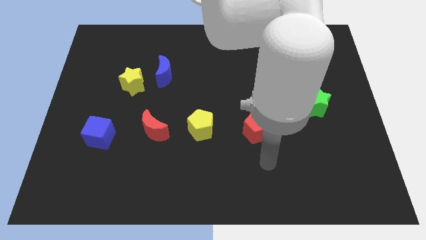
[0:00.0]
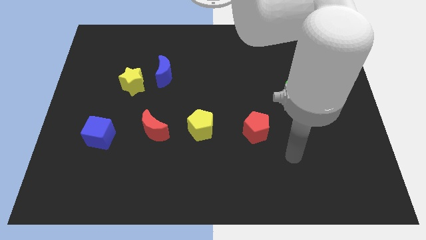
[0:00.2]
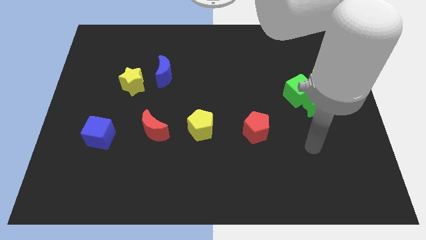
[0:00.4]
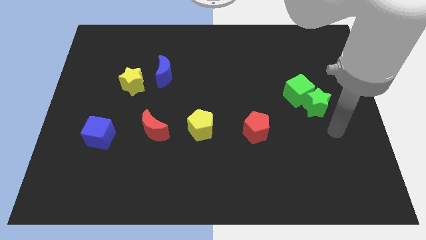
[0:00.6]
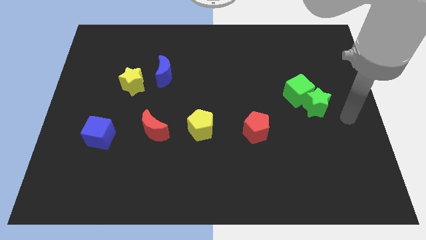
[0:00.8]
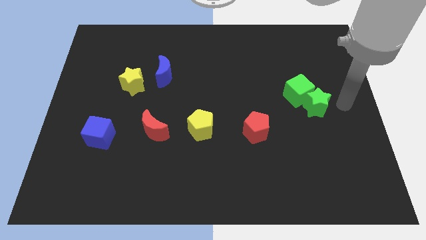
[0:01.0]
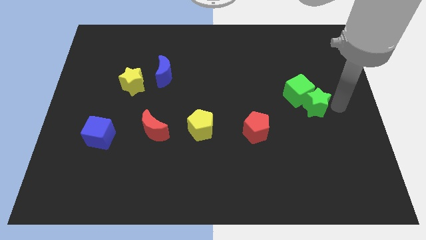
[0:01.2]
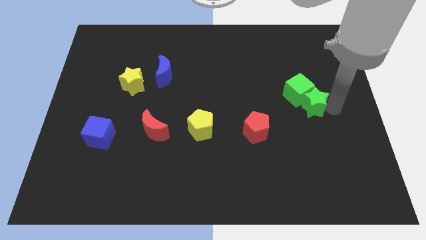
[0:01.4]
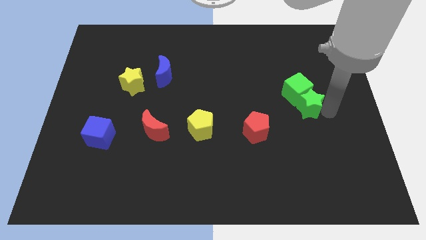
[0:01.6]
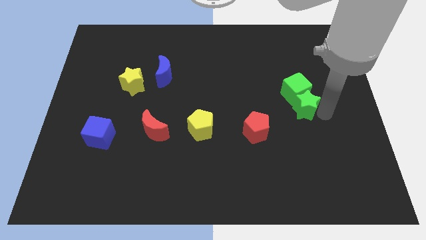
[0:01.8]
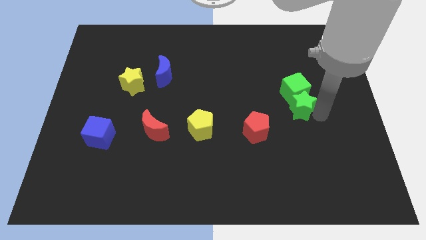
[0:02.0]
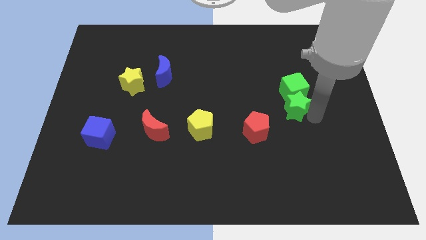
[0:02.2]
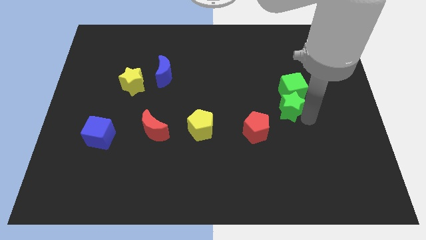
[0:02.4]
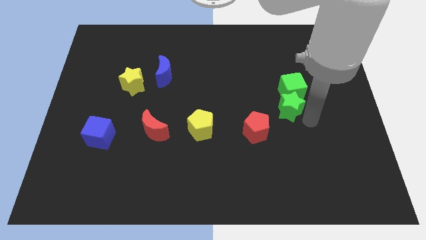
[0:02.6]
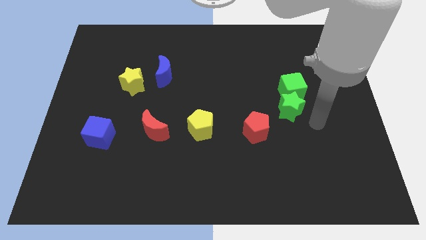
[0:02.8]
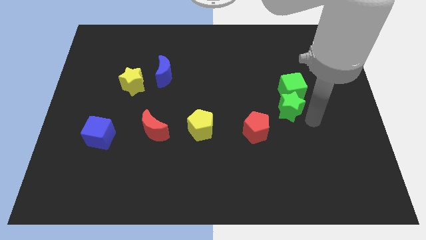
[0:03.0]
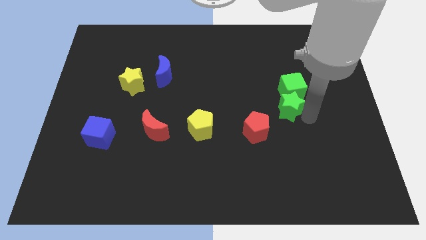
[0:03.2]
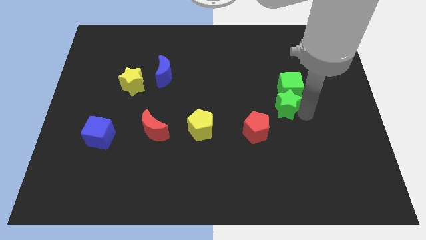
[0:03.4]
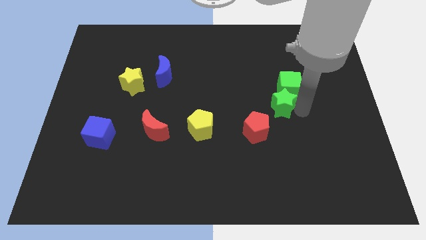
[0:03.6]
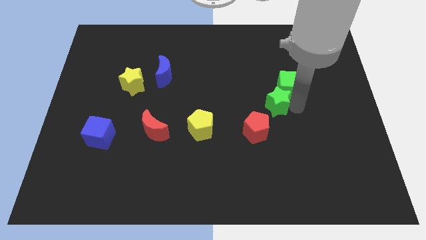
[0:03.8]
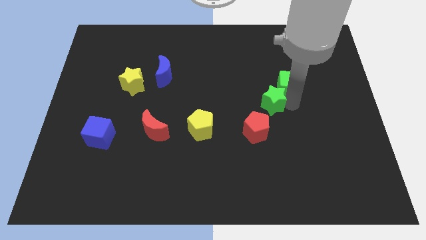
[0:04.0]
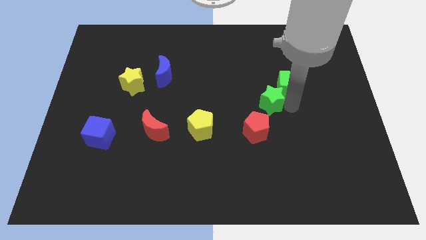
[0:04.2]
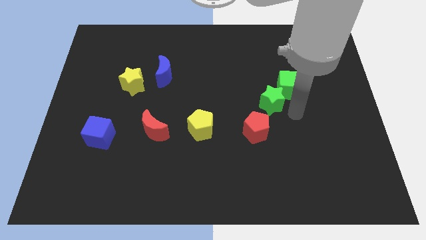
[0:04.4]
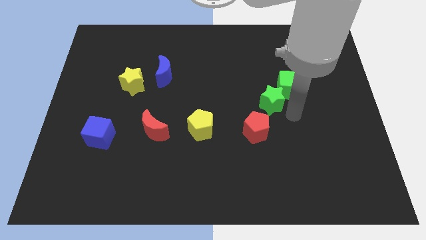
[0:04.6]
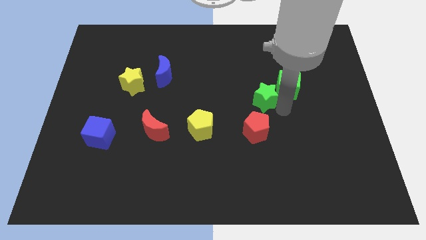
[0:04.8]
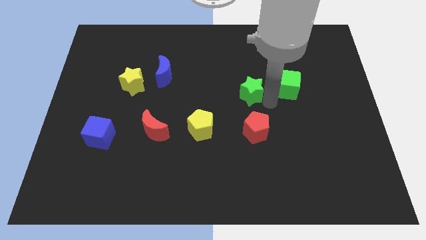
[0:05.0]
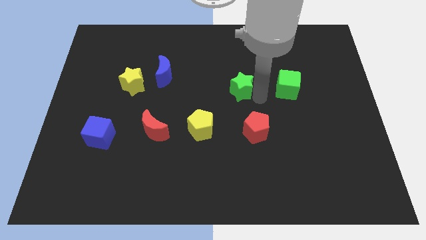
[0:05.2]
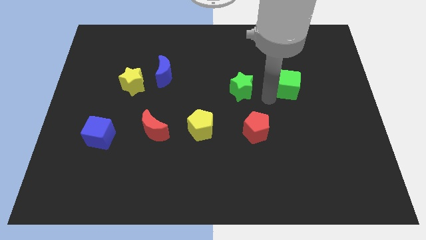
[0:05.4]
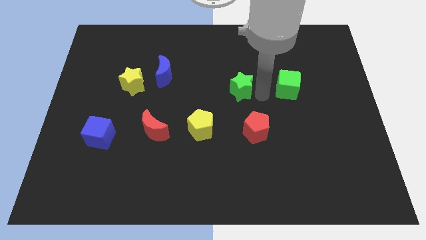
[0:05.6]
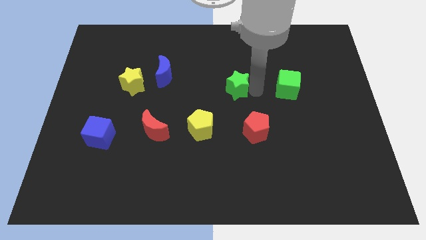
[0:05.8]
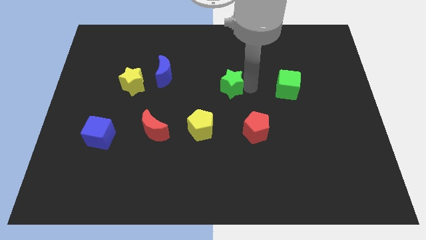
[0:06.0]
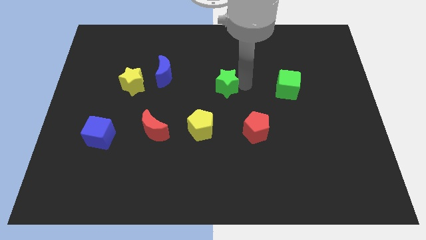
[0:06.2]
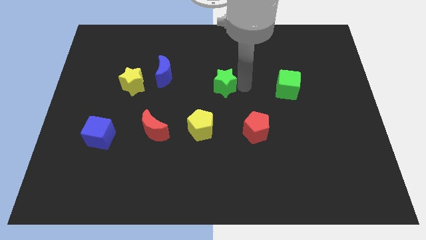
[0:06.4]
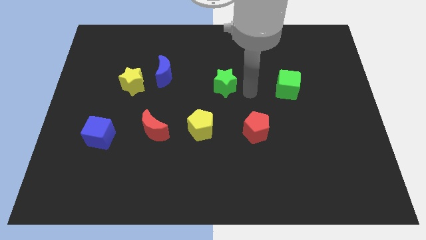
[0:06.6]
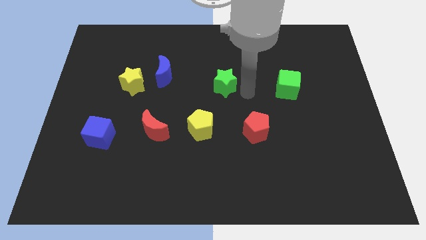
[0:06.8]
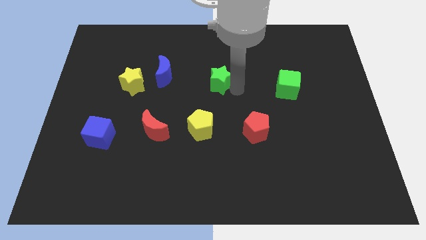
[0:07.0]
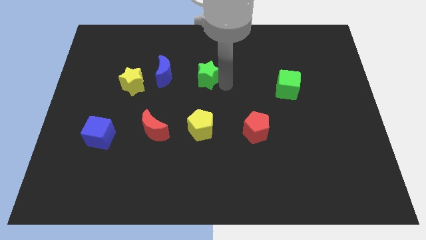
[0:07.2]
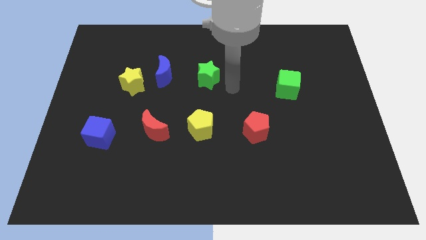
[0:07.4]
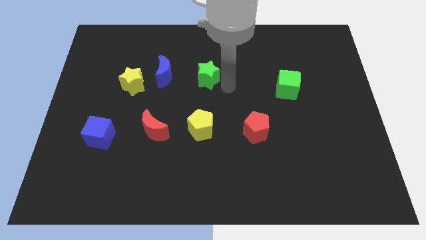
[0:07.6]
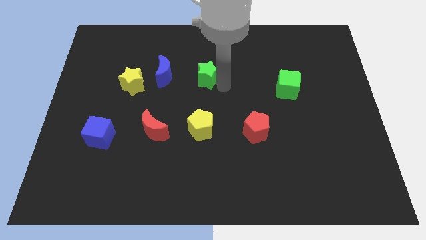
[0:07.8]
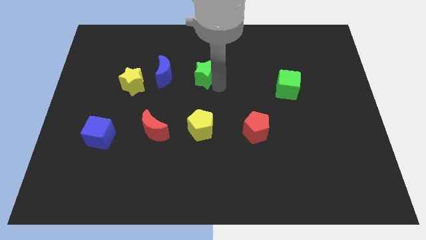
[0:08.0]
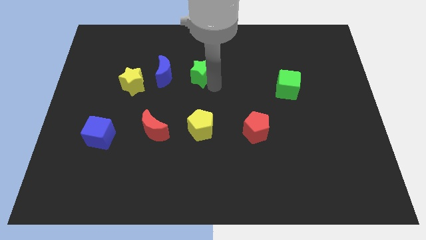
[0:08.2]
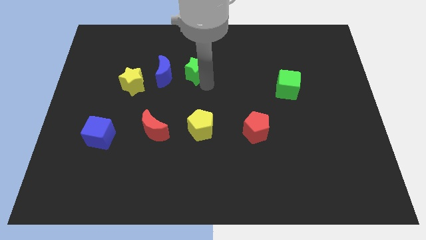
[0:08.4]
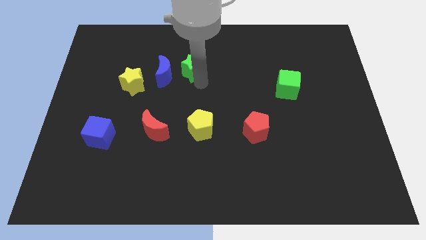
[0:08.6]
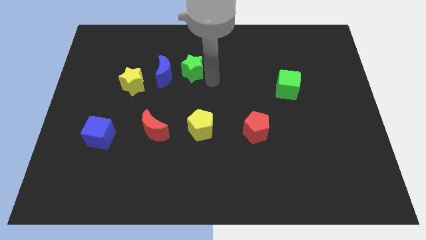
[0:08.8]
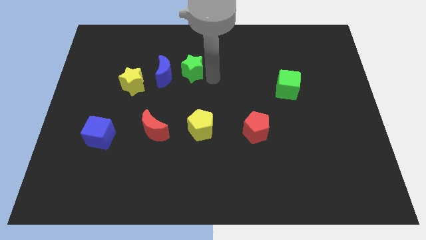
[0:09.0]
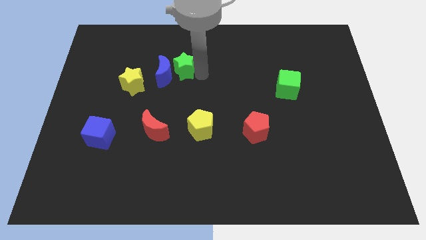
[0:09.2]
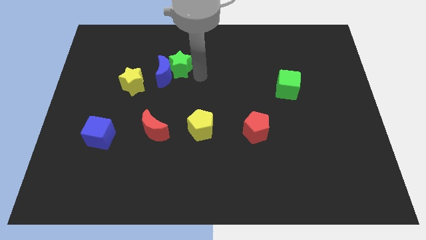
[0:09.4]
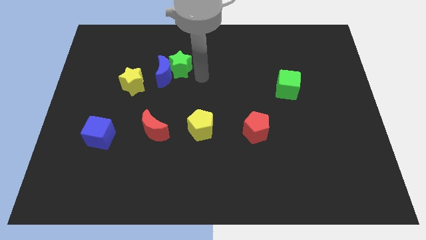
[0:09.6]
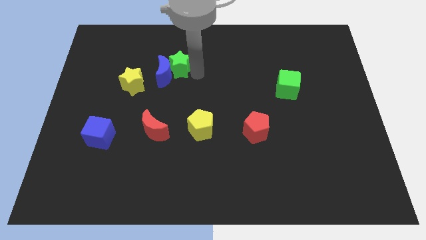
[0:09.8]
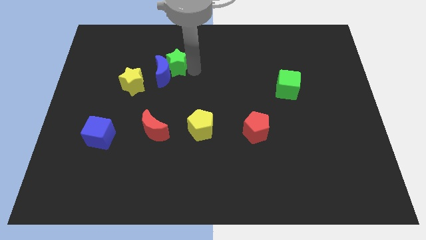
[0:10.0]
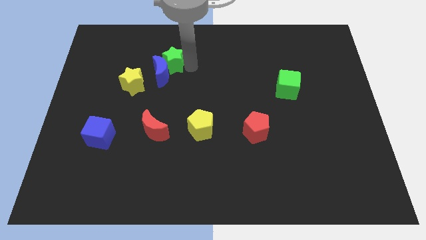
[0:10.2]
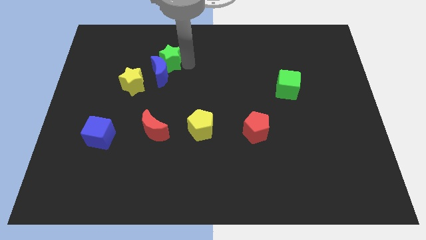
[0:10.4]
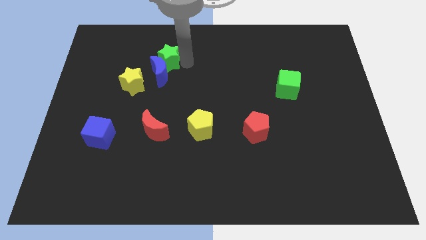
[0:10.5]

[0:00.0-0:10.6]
put the green star diagonally up and to the left of the blue moon

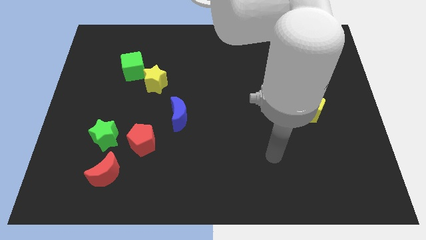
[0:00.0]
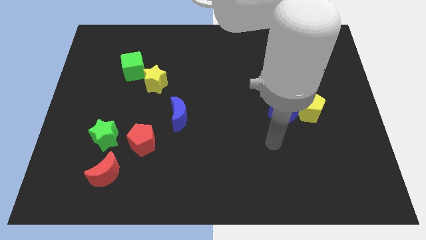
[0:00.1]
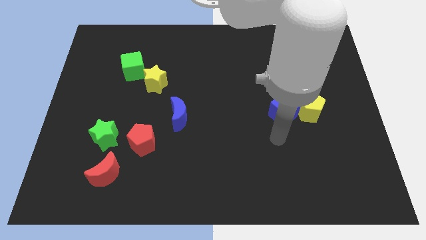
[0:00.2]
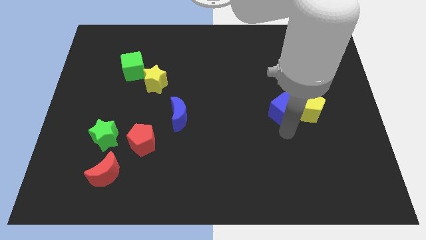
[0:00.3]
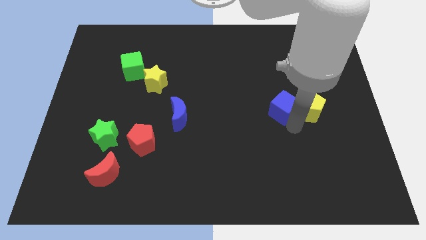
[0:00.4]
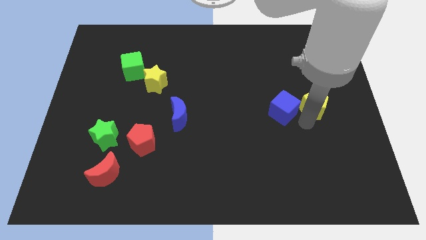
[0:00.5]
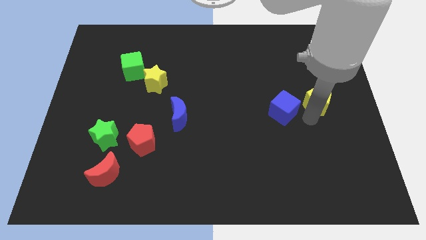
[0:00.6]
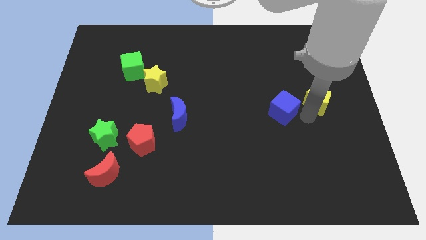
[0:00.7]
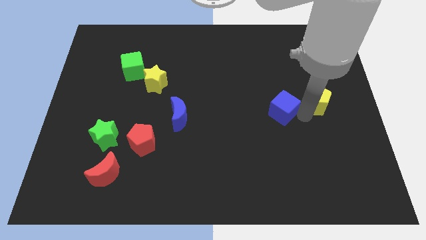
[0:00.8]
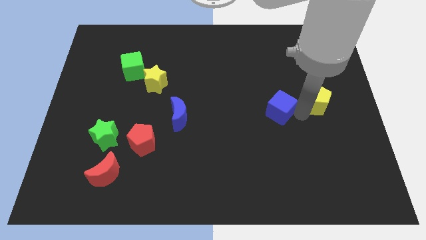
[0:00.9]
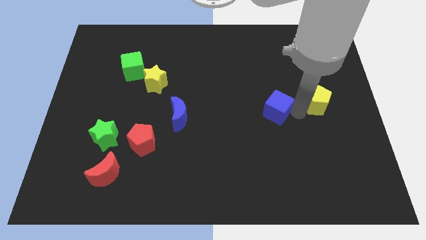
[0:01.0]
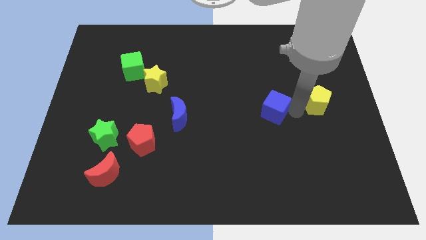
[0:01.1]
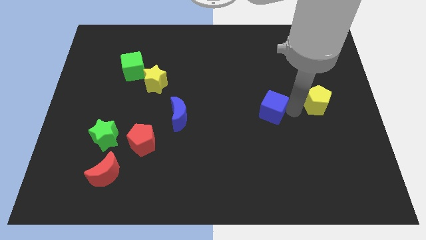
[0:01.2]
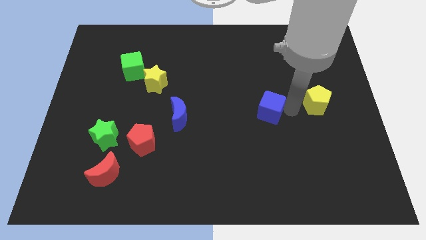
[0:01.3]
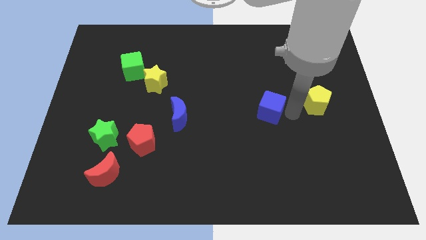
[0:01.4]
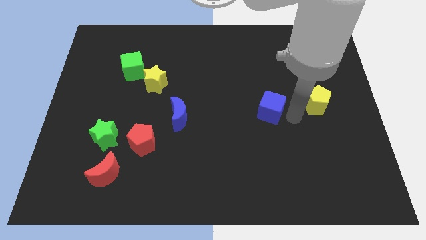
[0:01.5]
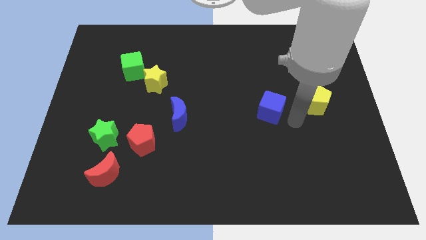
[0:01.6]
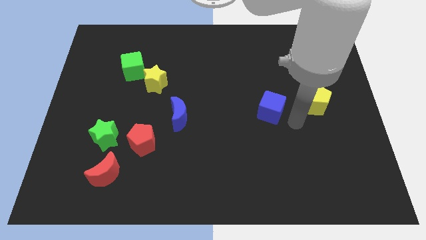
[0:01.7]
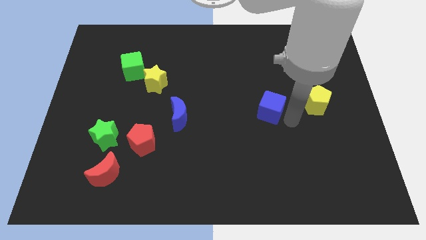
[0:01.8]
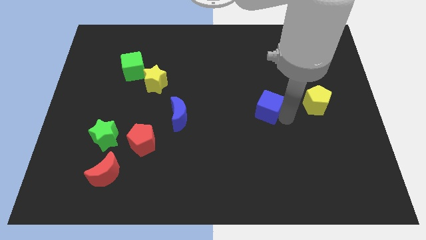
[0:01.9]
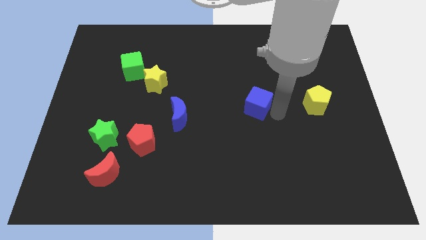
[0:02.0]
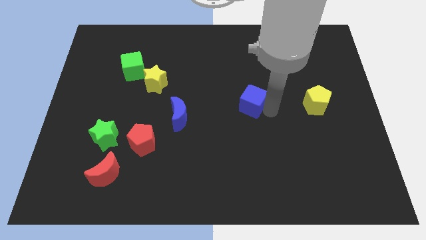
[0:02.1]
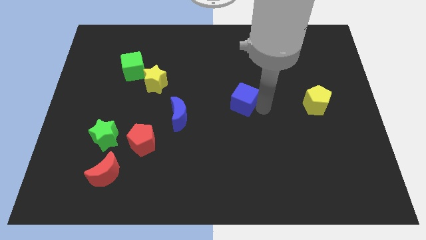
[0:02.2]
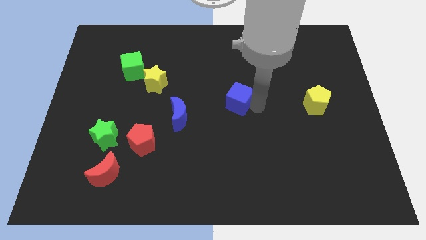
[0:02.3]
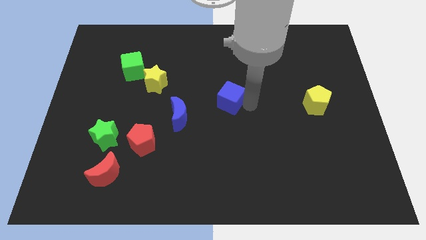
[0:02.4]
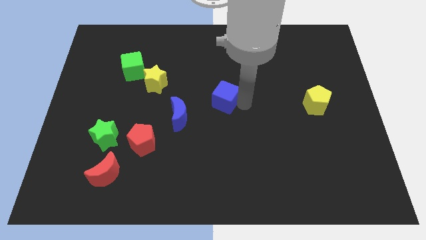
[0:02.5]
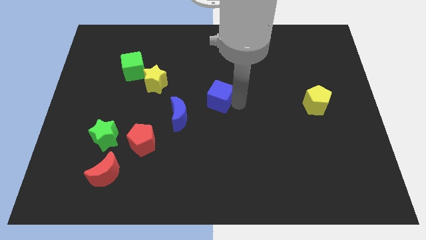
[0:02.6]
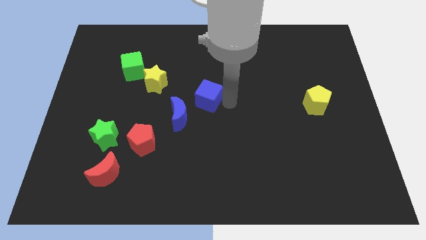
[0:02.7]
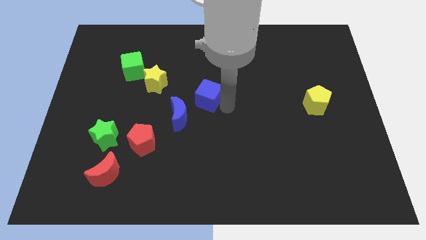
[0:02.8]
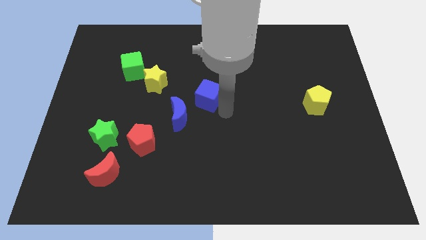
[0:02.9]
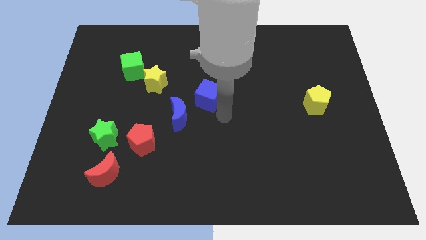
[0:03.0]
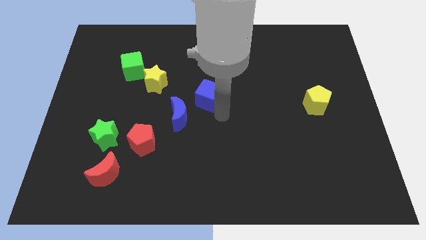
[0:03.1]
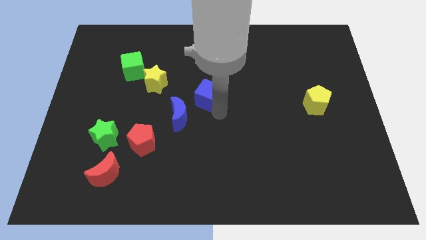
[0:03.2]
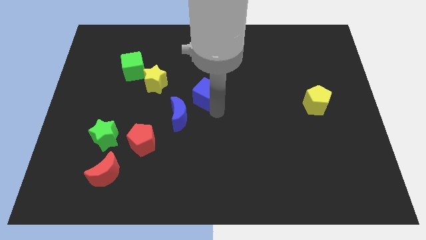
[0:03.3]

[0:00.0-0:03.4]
push the blue cube right of the yellow star
